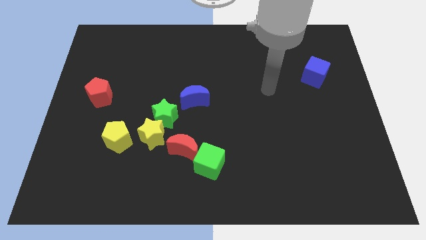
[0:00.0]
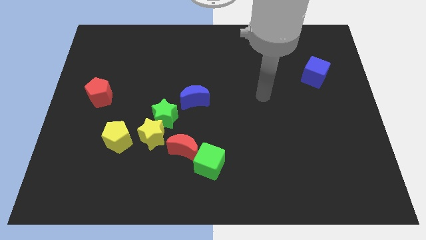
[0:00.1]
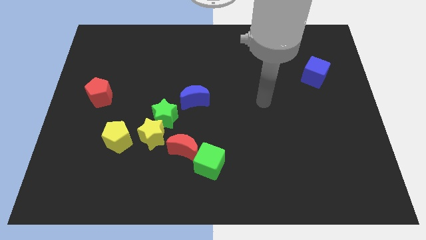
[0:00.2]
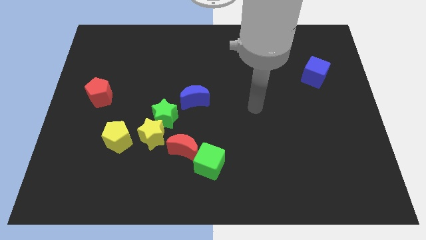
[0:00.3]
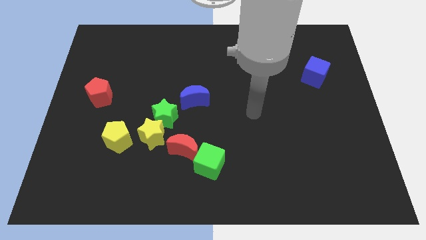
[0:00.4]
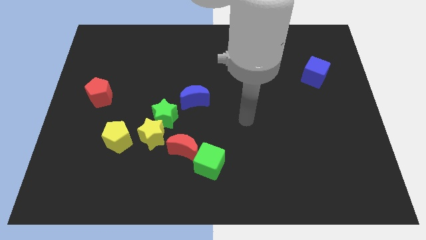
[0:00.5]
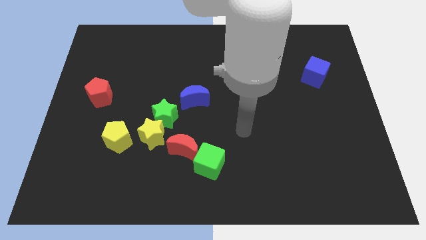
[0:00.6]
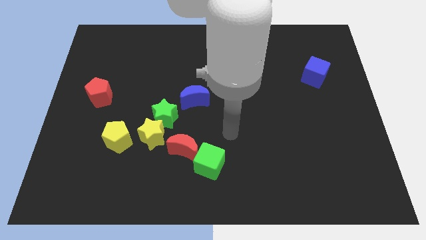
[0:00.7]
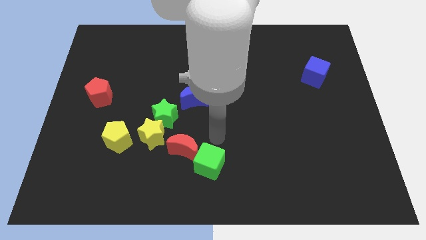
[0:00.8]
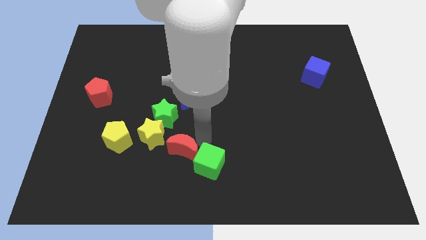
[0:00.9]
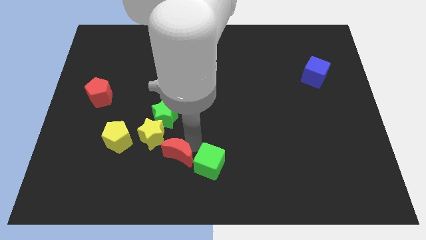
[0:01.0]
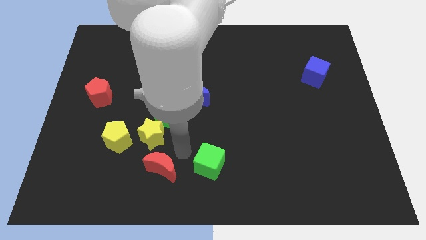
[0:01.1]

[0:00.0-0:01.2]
pull the green cube apart from the red moon

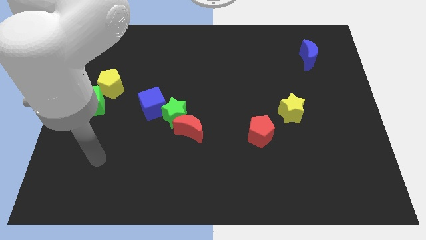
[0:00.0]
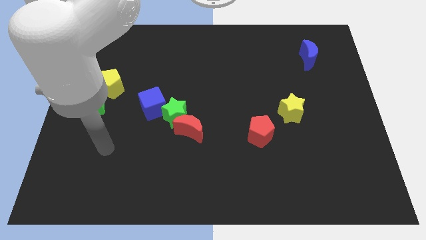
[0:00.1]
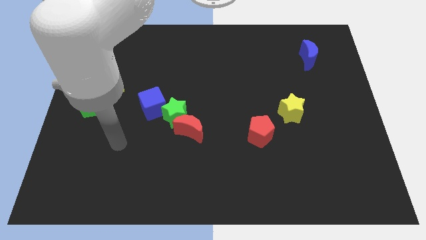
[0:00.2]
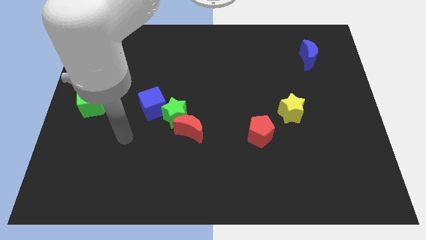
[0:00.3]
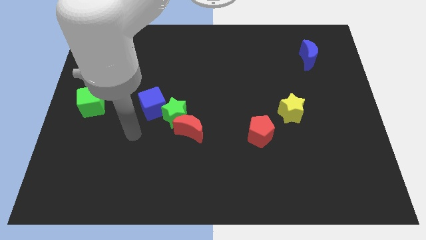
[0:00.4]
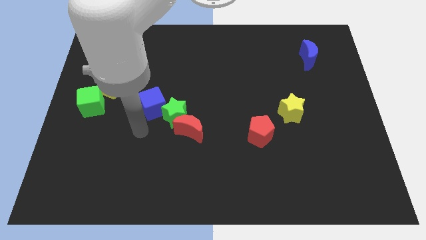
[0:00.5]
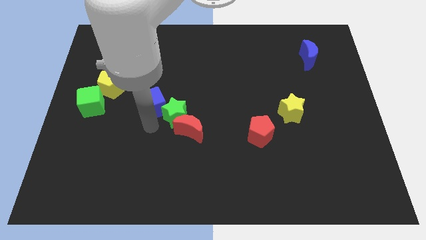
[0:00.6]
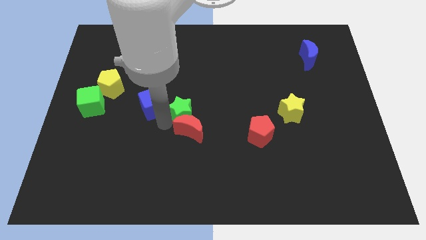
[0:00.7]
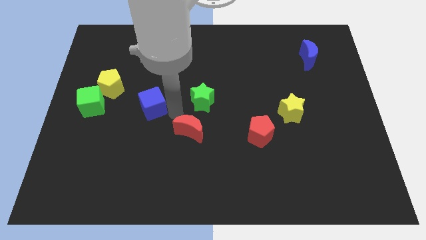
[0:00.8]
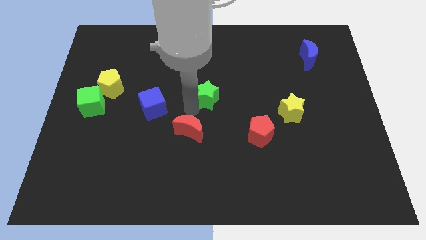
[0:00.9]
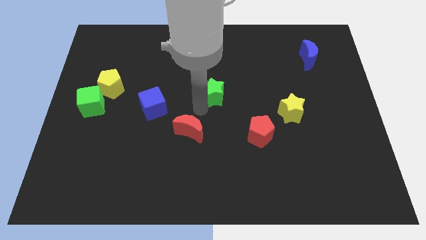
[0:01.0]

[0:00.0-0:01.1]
separate the red moon from the green star

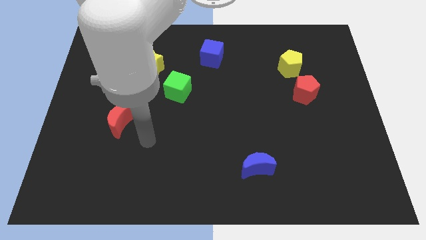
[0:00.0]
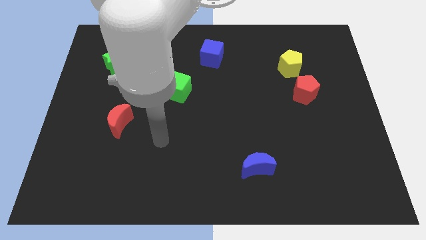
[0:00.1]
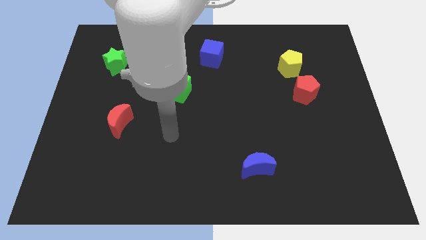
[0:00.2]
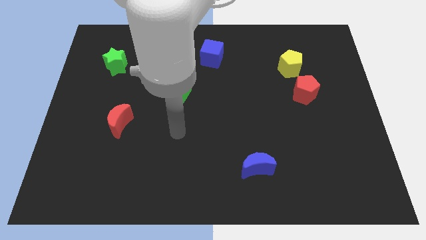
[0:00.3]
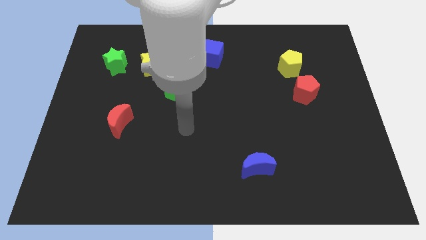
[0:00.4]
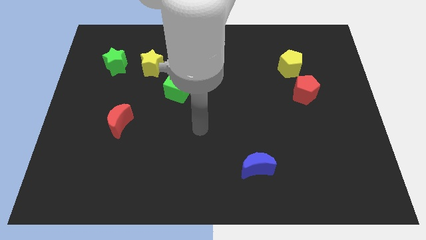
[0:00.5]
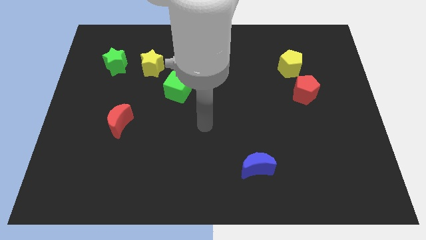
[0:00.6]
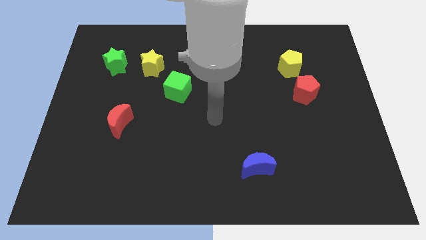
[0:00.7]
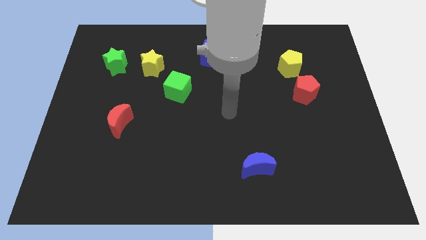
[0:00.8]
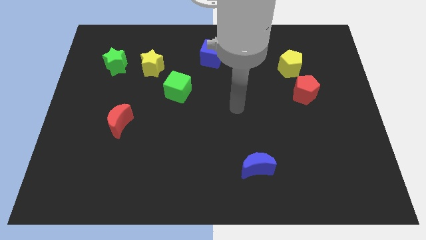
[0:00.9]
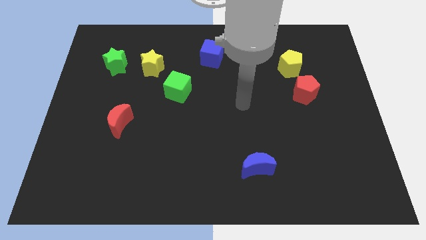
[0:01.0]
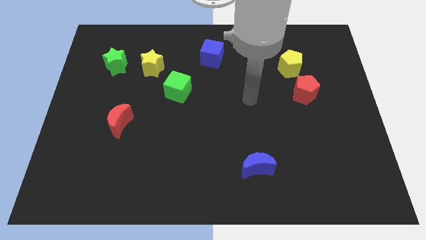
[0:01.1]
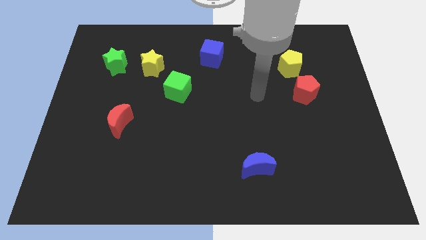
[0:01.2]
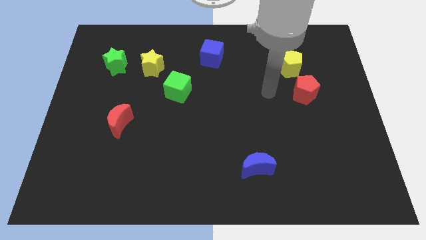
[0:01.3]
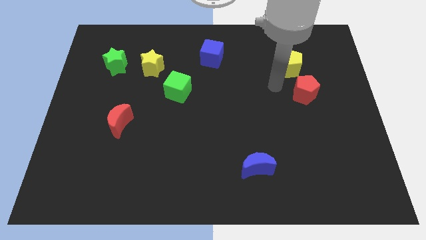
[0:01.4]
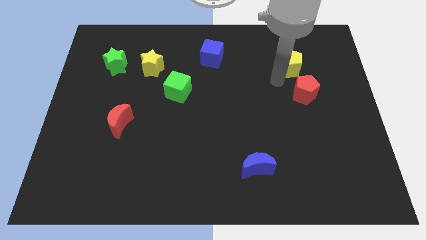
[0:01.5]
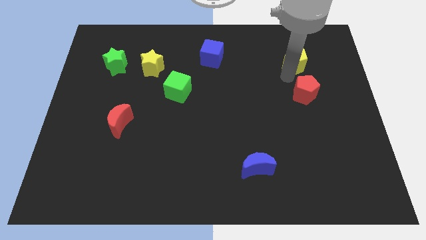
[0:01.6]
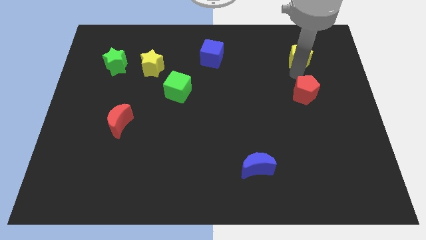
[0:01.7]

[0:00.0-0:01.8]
move the red pentagon away from the yellow pentagon

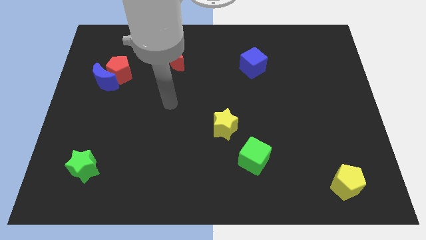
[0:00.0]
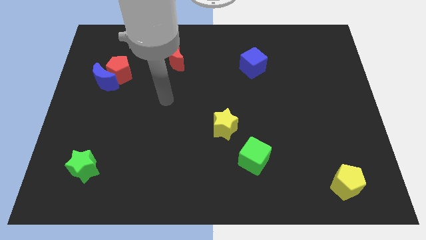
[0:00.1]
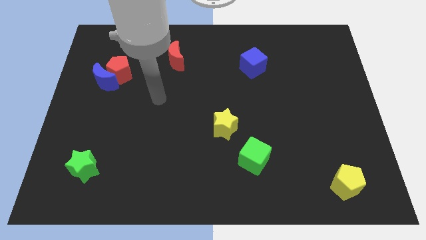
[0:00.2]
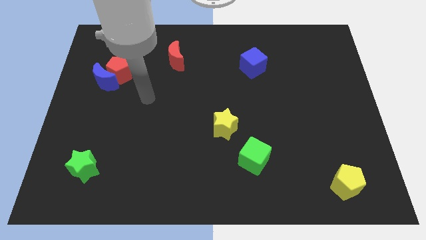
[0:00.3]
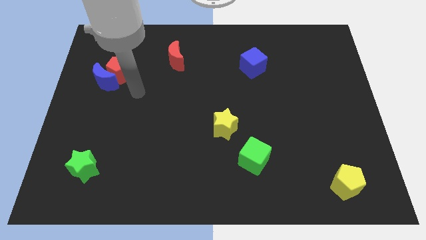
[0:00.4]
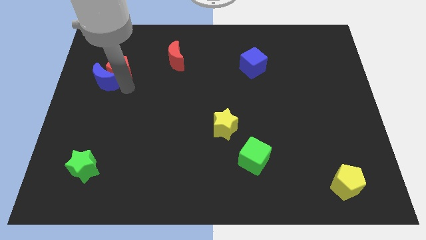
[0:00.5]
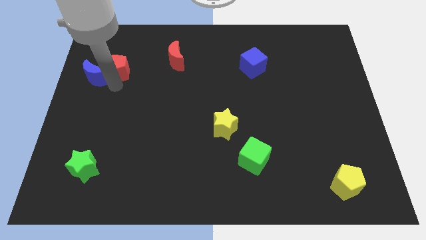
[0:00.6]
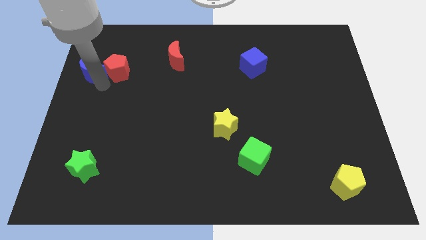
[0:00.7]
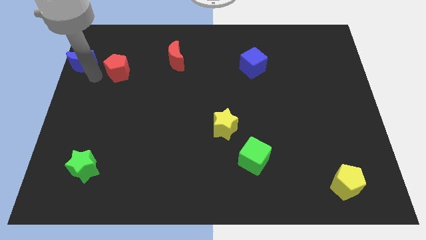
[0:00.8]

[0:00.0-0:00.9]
move the red pentagon away from the blue moon

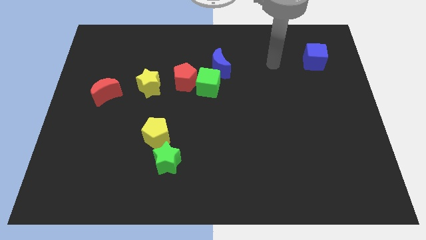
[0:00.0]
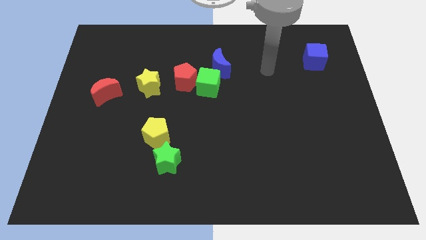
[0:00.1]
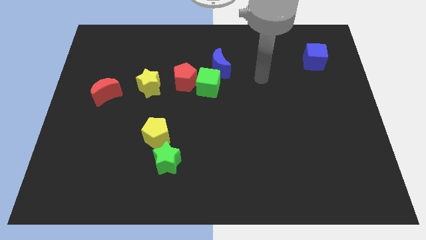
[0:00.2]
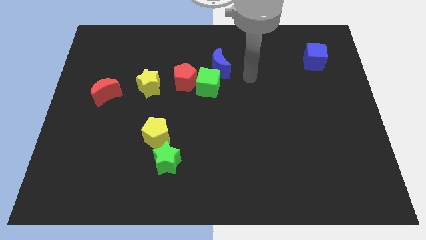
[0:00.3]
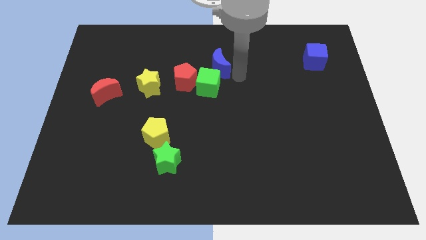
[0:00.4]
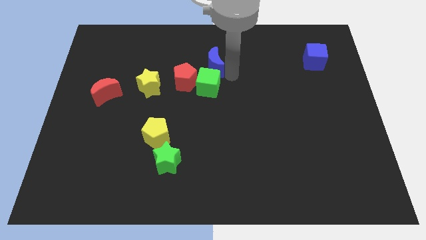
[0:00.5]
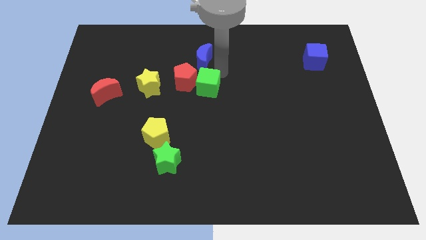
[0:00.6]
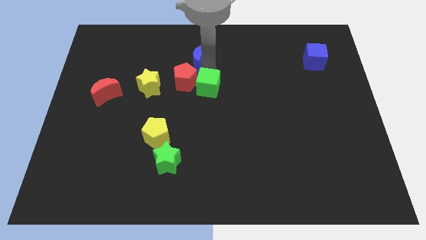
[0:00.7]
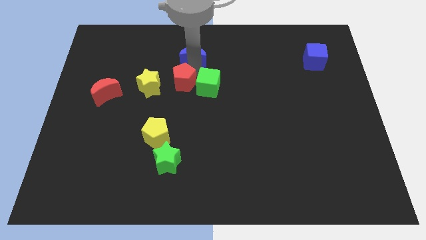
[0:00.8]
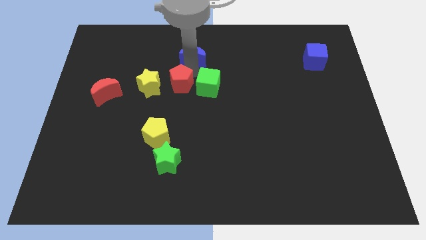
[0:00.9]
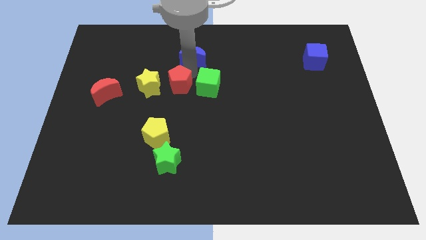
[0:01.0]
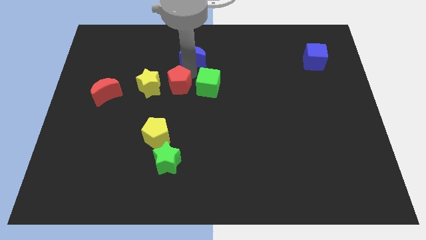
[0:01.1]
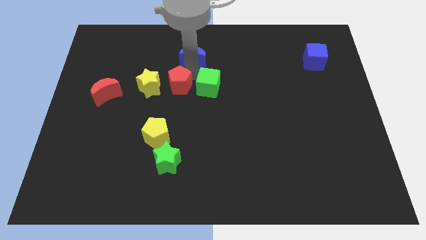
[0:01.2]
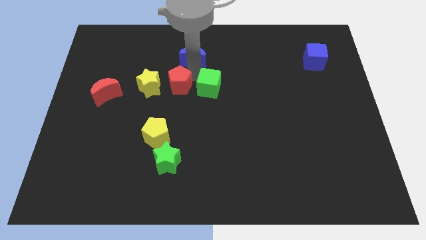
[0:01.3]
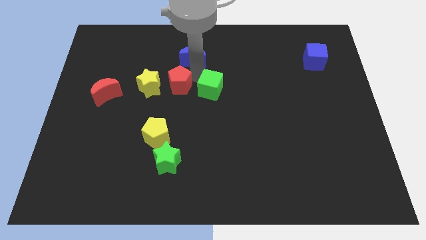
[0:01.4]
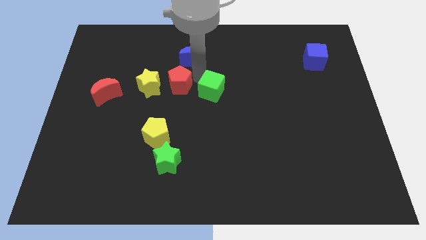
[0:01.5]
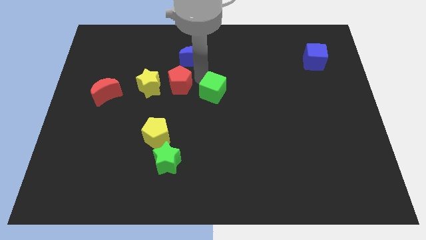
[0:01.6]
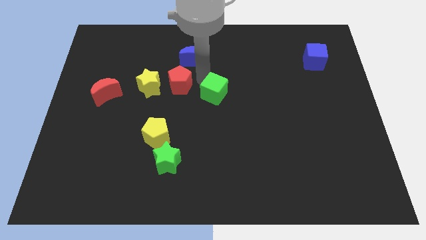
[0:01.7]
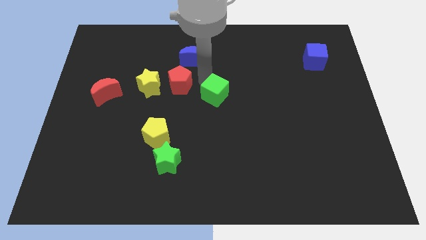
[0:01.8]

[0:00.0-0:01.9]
separate the green cube from the red pentagon and blue moon

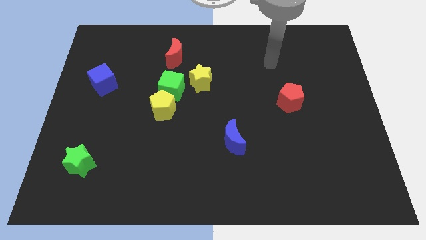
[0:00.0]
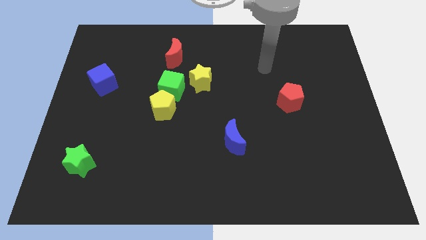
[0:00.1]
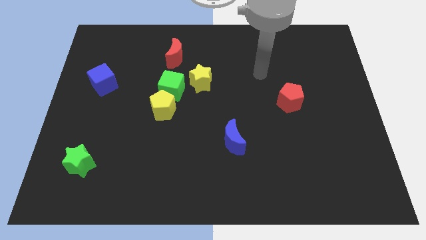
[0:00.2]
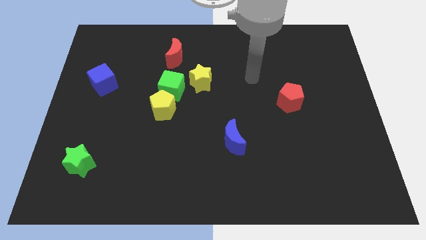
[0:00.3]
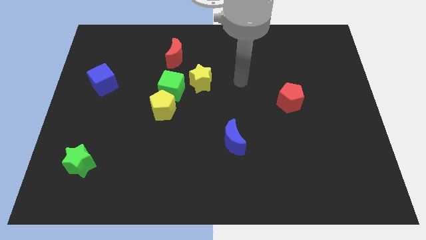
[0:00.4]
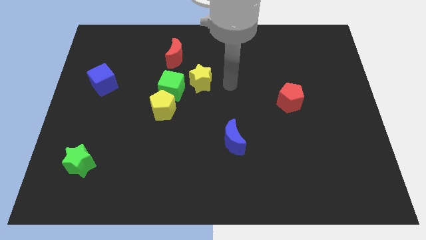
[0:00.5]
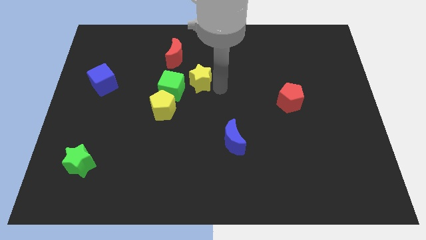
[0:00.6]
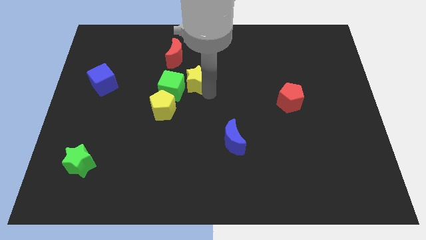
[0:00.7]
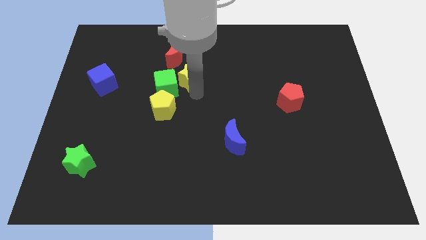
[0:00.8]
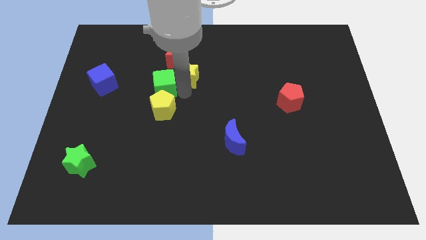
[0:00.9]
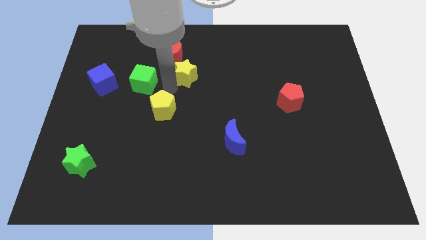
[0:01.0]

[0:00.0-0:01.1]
separate the yellow pentagon from the green cube

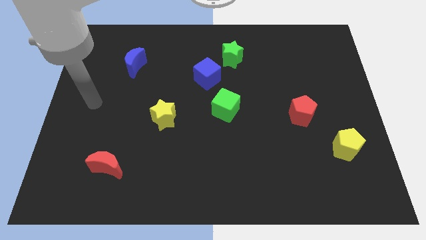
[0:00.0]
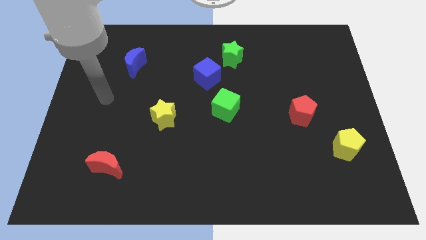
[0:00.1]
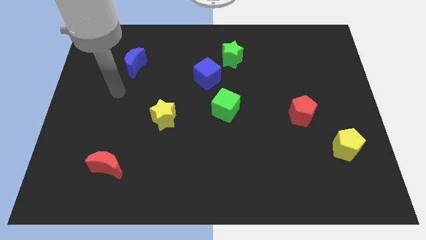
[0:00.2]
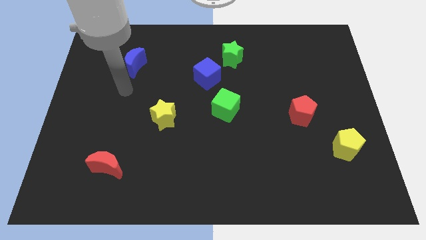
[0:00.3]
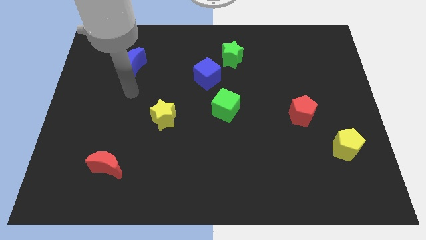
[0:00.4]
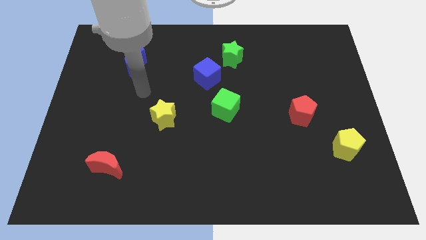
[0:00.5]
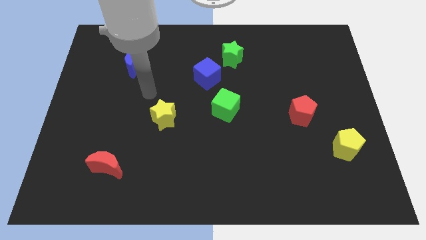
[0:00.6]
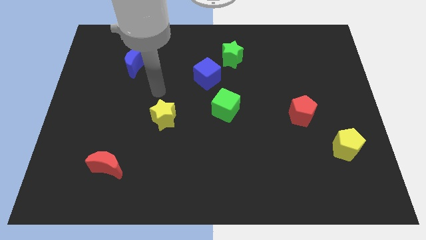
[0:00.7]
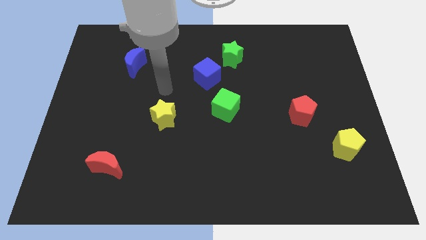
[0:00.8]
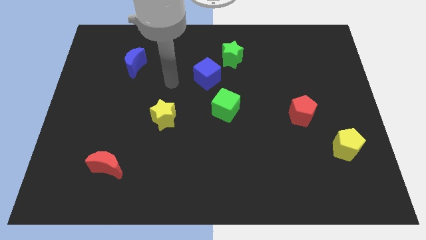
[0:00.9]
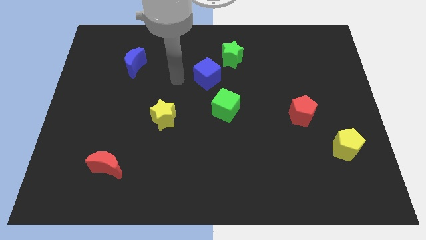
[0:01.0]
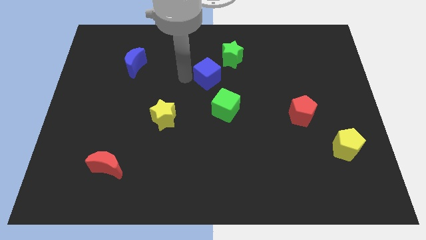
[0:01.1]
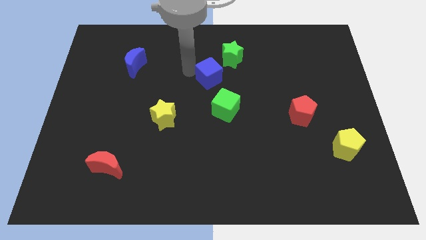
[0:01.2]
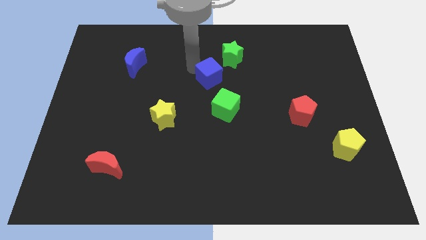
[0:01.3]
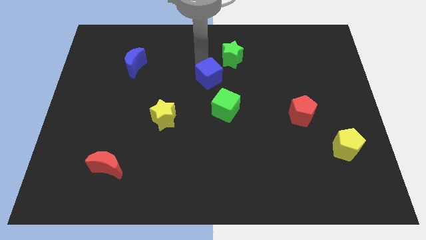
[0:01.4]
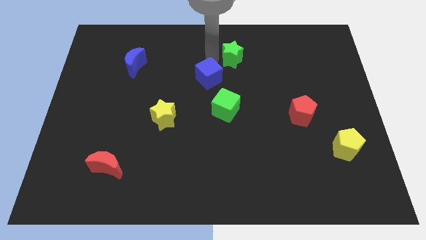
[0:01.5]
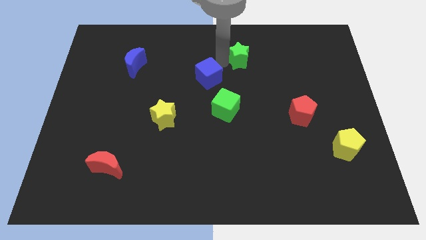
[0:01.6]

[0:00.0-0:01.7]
move the blue cube away from the green star
